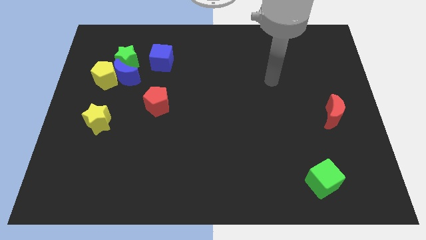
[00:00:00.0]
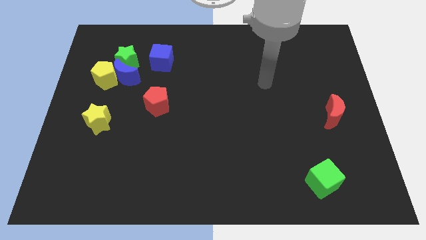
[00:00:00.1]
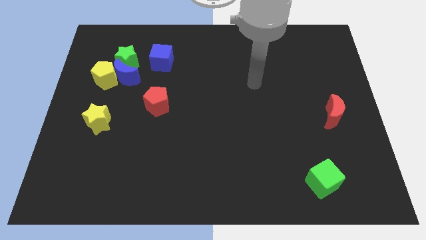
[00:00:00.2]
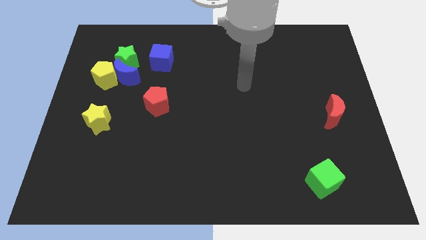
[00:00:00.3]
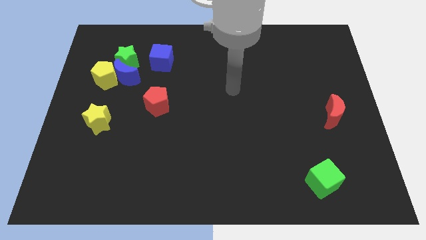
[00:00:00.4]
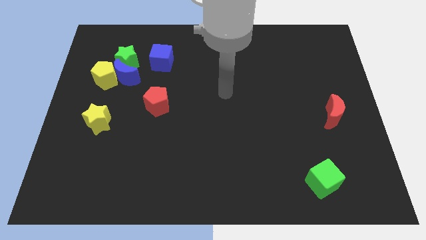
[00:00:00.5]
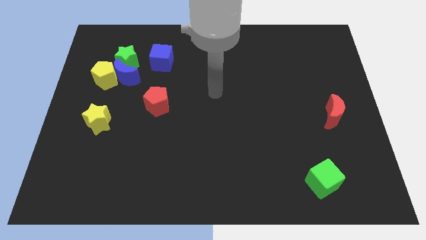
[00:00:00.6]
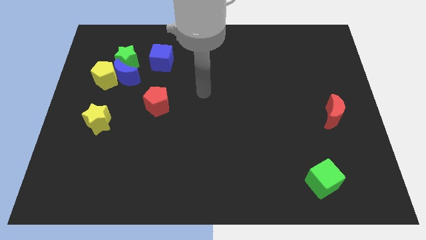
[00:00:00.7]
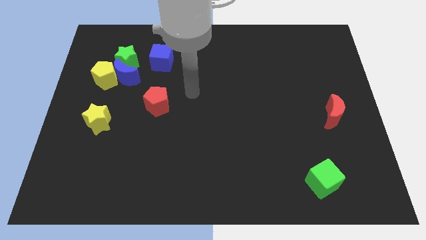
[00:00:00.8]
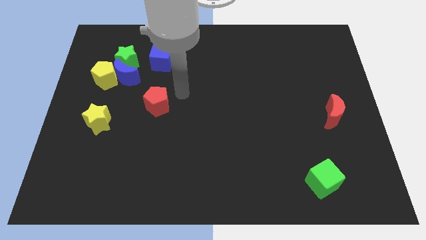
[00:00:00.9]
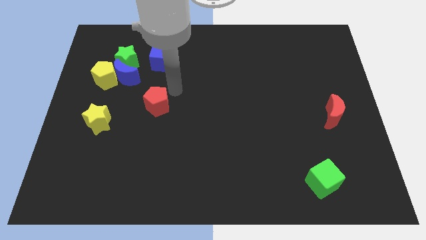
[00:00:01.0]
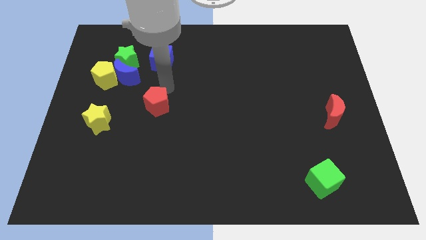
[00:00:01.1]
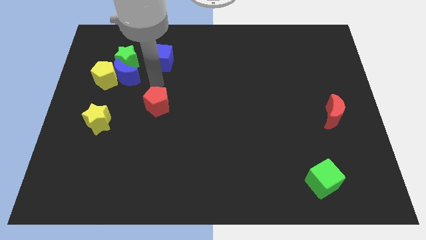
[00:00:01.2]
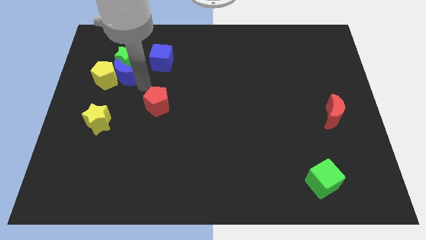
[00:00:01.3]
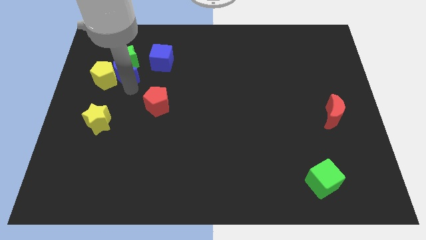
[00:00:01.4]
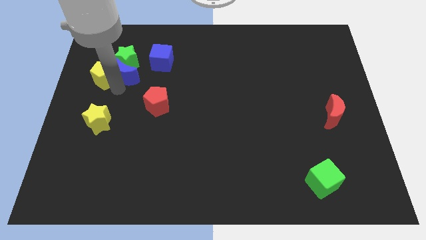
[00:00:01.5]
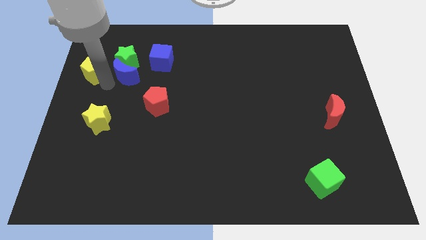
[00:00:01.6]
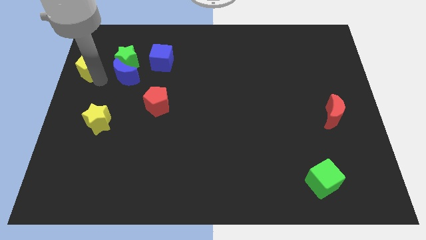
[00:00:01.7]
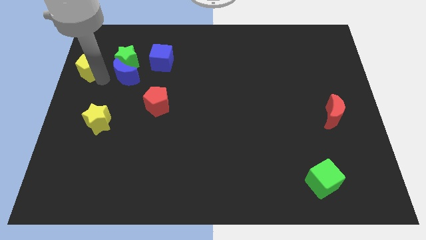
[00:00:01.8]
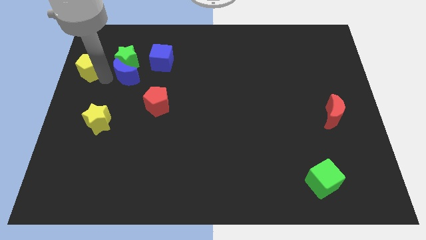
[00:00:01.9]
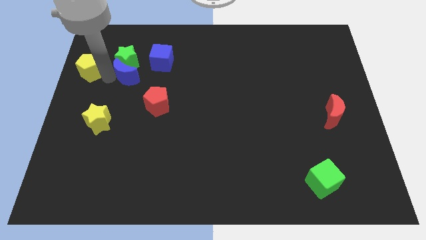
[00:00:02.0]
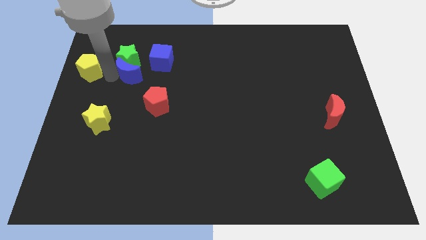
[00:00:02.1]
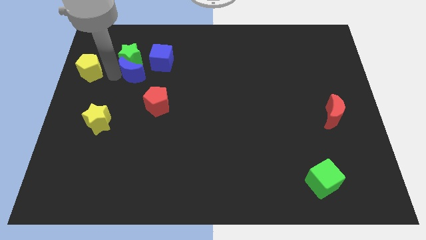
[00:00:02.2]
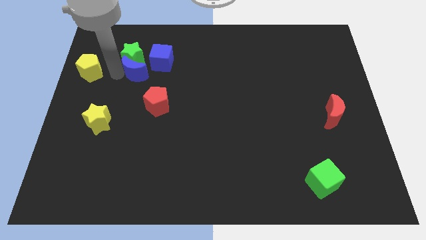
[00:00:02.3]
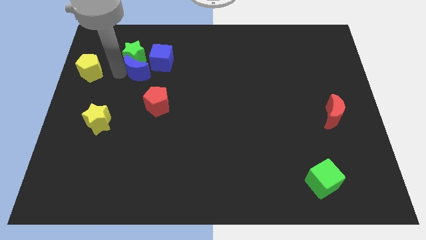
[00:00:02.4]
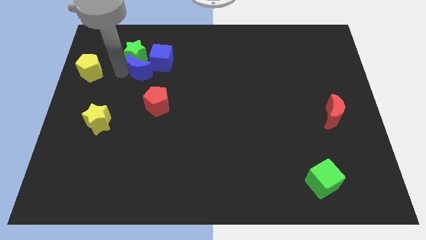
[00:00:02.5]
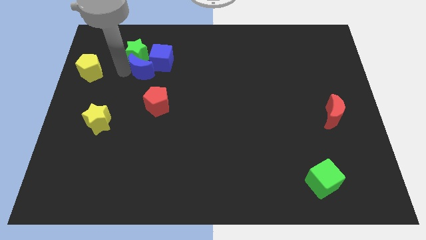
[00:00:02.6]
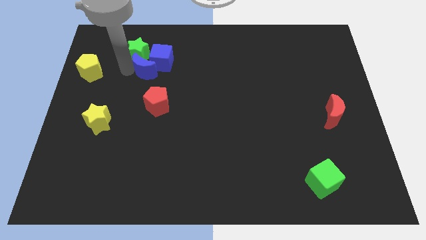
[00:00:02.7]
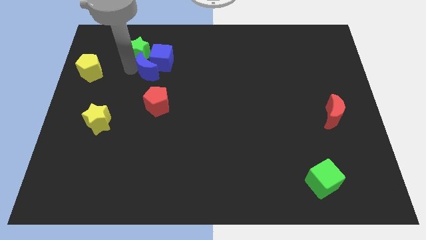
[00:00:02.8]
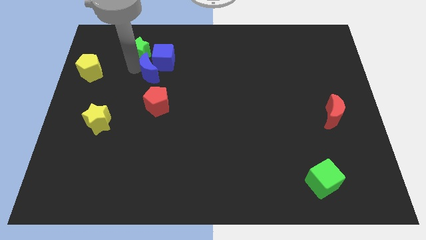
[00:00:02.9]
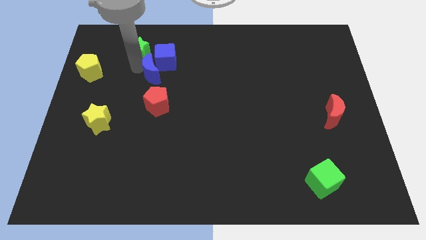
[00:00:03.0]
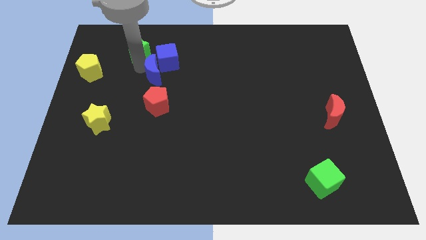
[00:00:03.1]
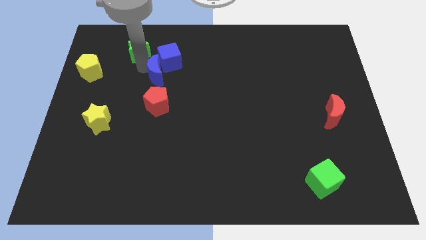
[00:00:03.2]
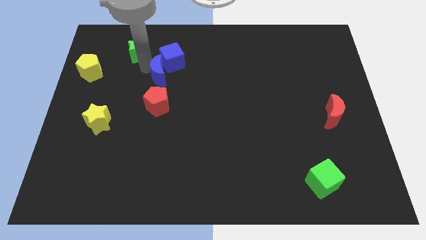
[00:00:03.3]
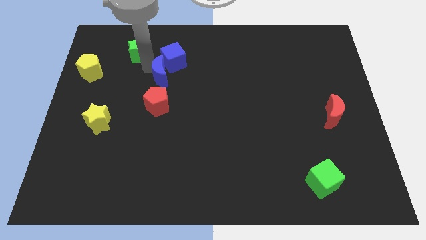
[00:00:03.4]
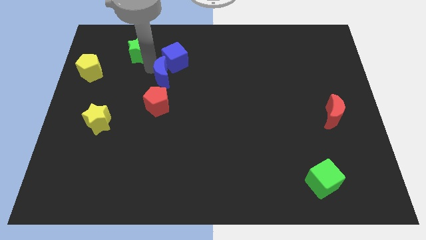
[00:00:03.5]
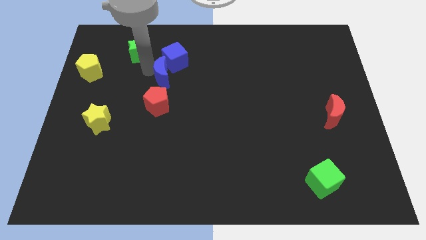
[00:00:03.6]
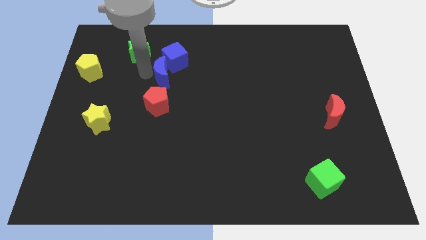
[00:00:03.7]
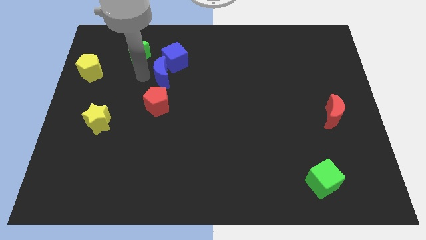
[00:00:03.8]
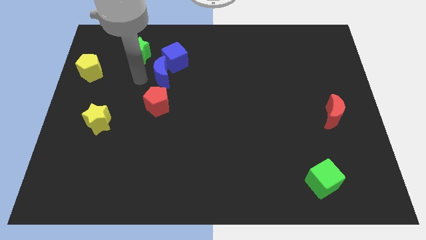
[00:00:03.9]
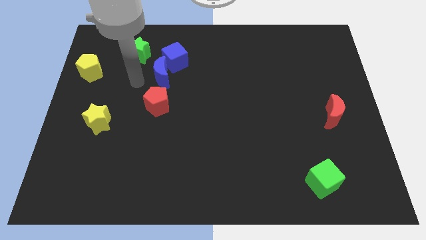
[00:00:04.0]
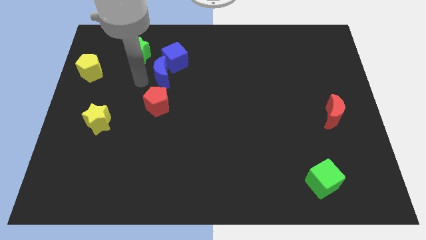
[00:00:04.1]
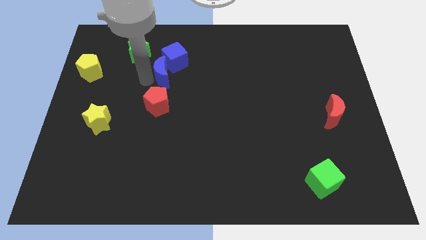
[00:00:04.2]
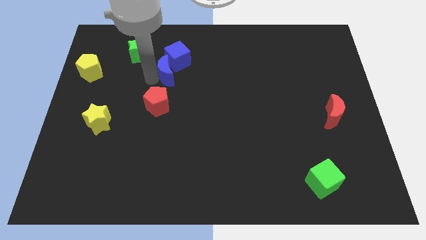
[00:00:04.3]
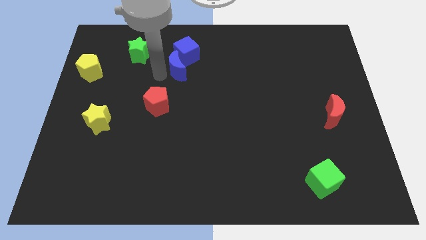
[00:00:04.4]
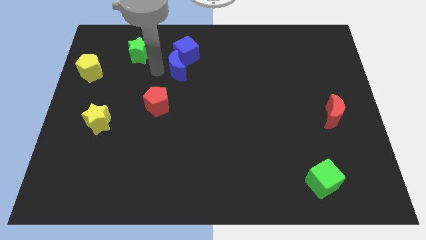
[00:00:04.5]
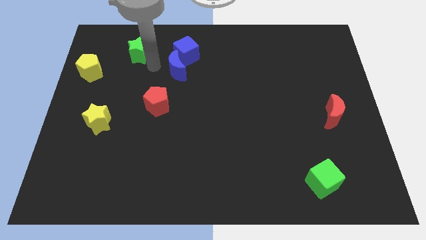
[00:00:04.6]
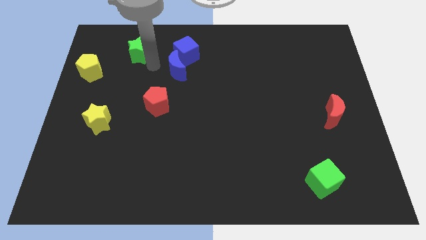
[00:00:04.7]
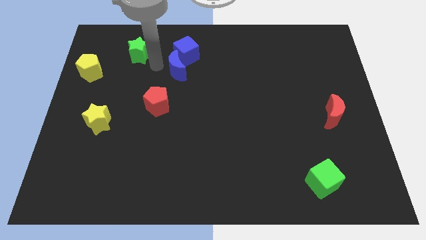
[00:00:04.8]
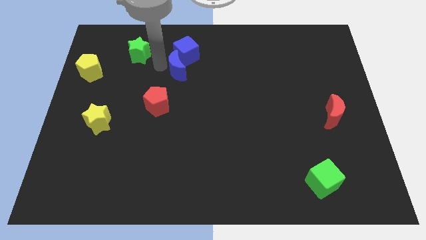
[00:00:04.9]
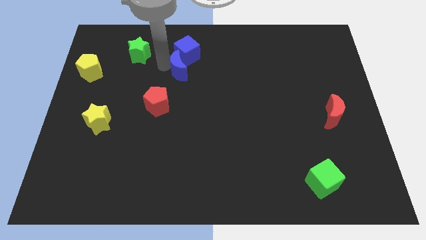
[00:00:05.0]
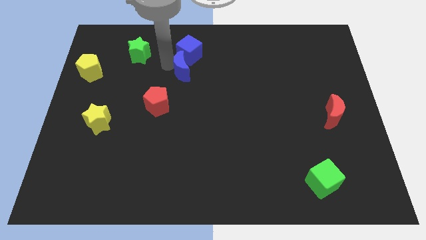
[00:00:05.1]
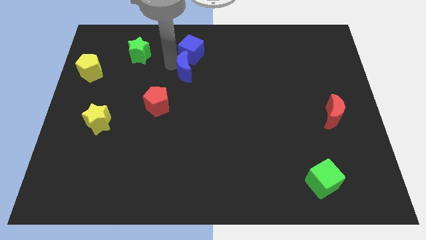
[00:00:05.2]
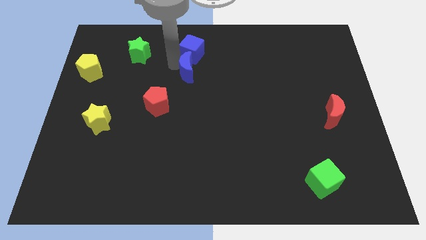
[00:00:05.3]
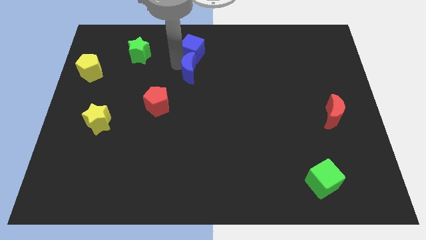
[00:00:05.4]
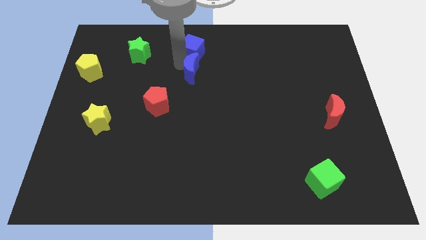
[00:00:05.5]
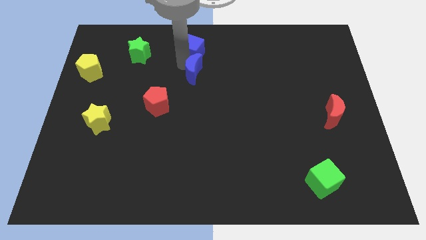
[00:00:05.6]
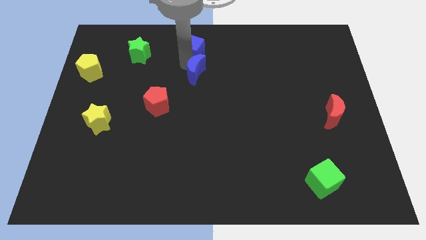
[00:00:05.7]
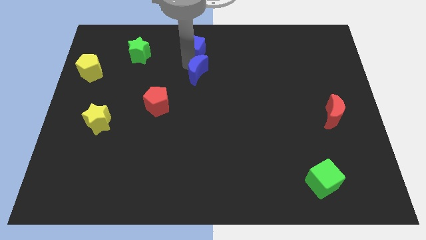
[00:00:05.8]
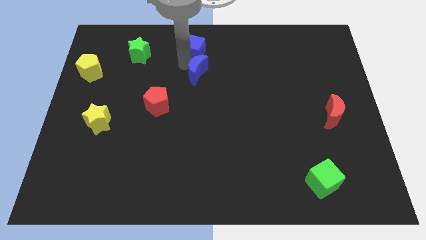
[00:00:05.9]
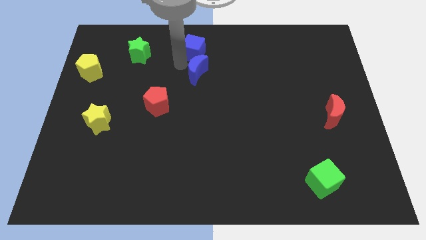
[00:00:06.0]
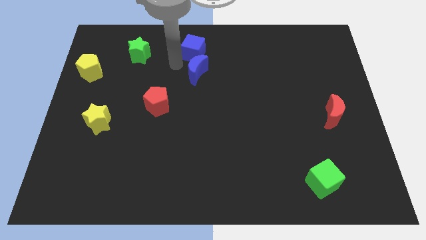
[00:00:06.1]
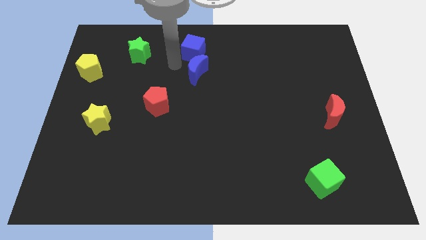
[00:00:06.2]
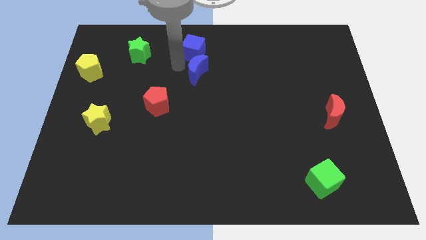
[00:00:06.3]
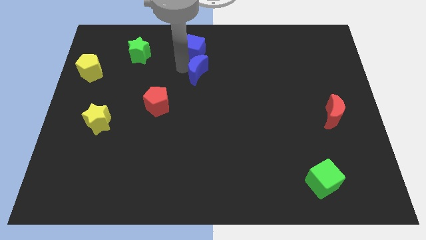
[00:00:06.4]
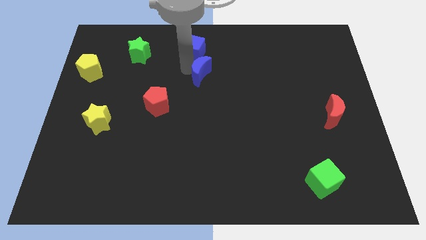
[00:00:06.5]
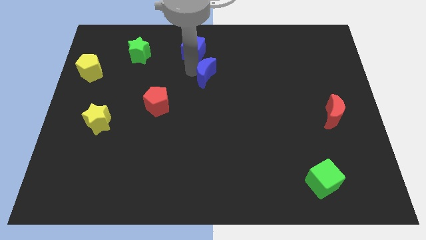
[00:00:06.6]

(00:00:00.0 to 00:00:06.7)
push the blue moon right

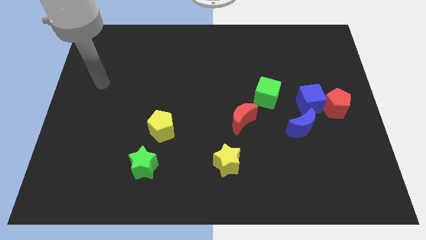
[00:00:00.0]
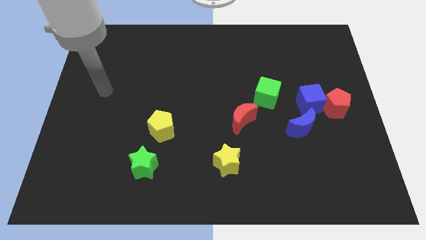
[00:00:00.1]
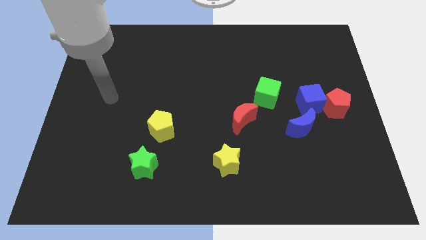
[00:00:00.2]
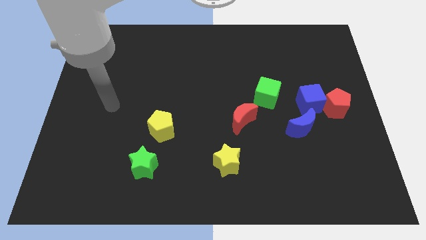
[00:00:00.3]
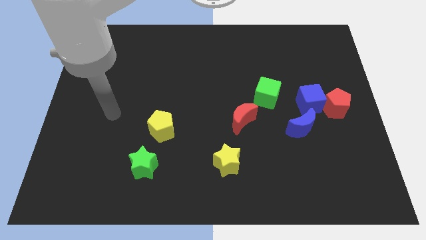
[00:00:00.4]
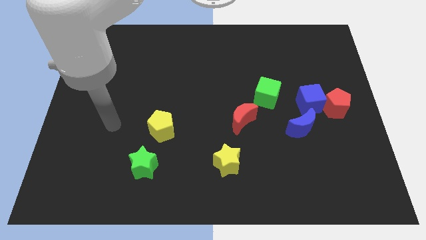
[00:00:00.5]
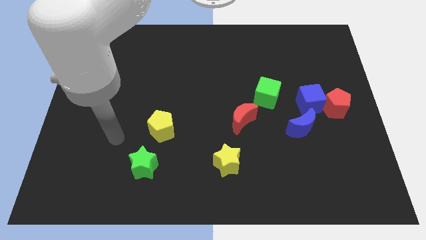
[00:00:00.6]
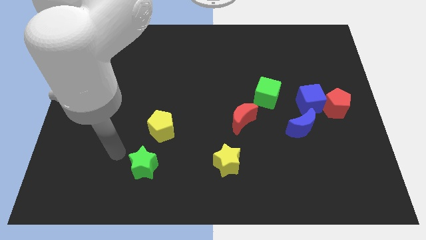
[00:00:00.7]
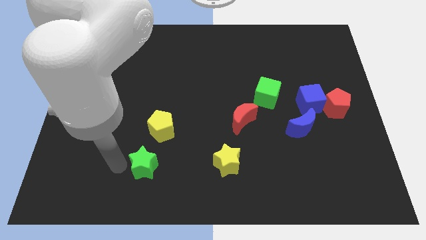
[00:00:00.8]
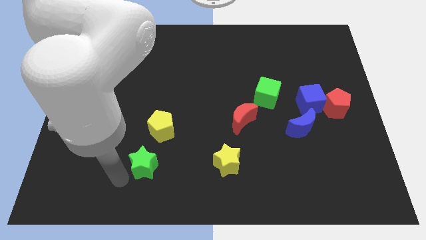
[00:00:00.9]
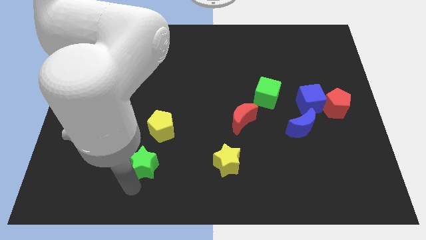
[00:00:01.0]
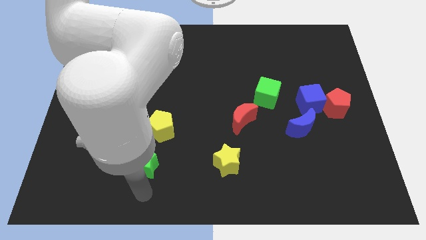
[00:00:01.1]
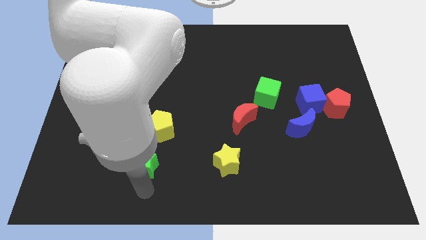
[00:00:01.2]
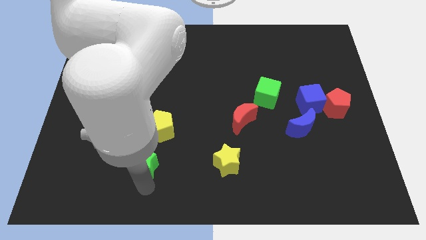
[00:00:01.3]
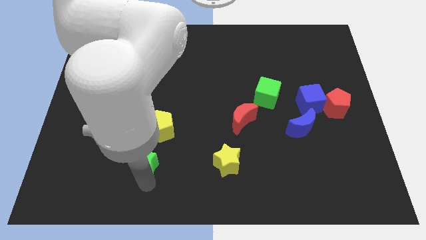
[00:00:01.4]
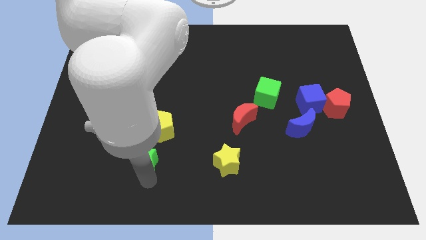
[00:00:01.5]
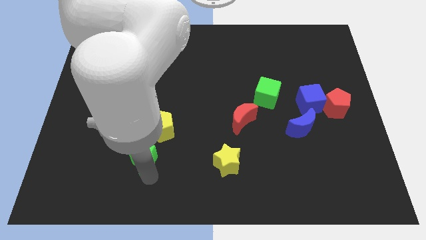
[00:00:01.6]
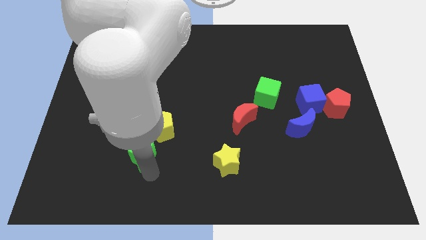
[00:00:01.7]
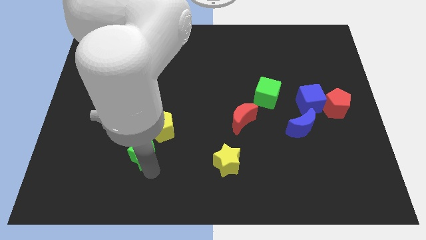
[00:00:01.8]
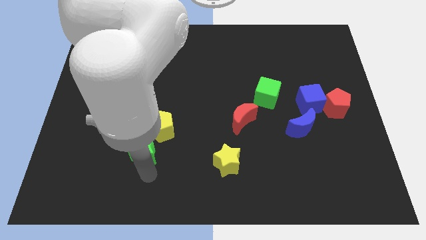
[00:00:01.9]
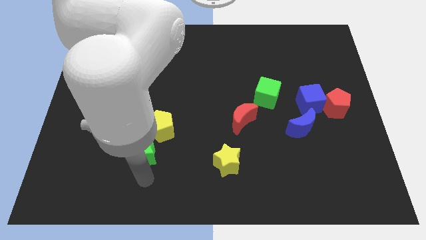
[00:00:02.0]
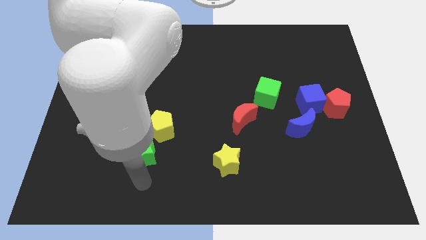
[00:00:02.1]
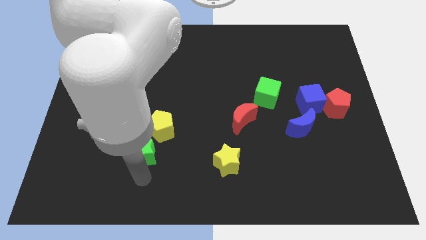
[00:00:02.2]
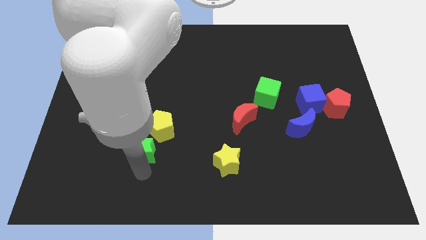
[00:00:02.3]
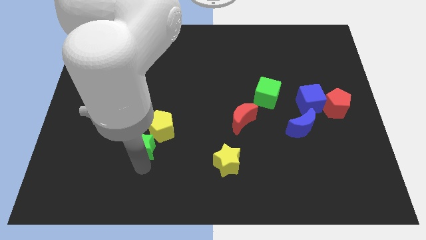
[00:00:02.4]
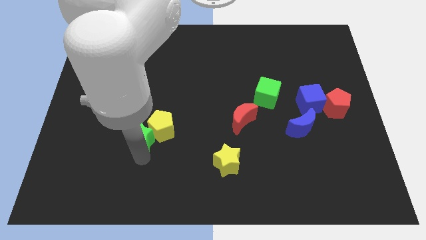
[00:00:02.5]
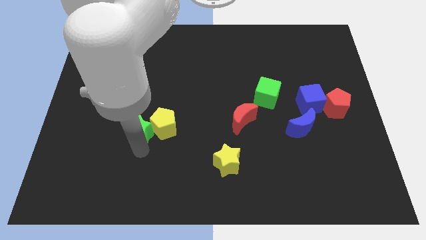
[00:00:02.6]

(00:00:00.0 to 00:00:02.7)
slide the green star somewhat up
